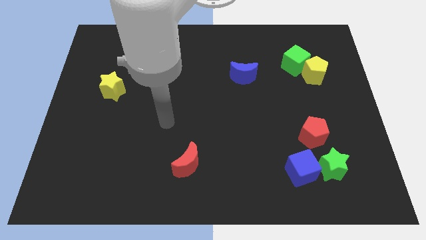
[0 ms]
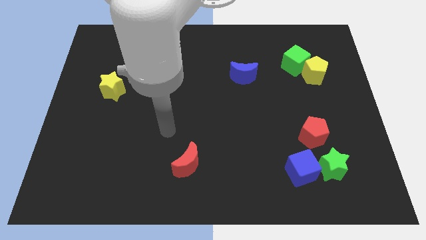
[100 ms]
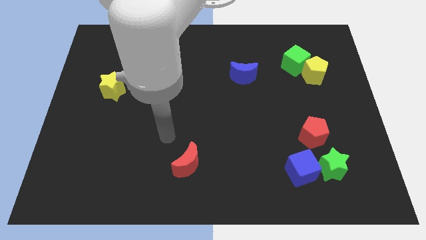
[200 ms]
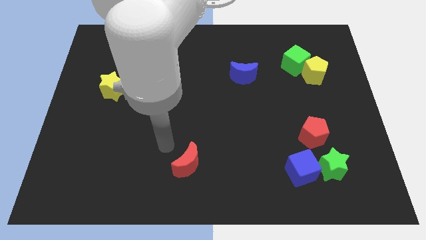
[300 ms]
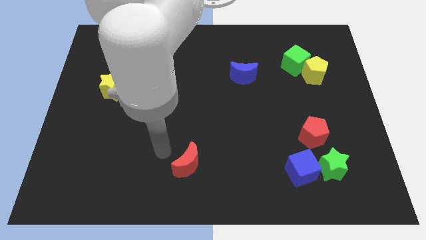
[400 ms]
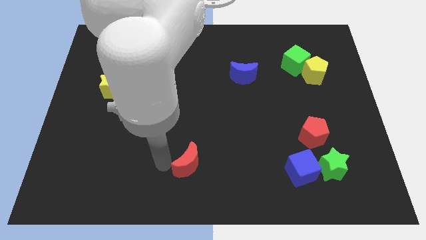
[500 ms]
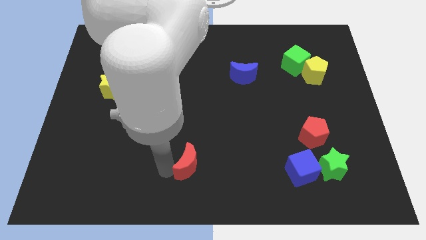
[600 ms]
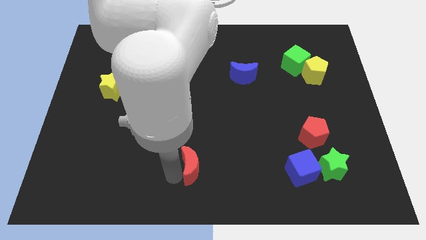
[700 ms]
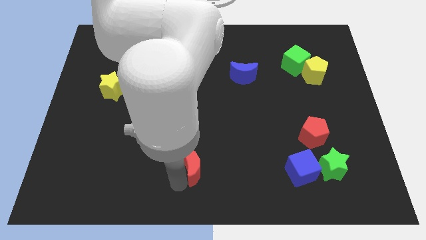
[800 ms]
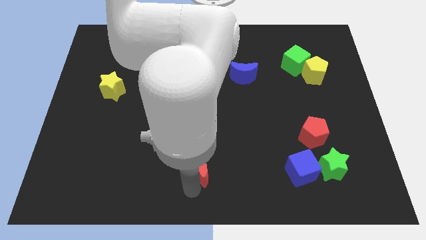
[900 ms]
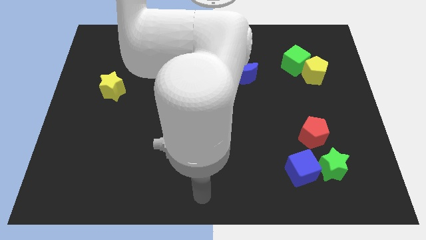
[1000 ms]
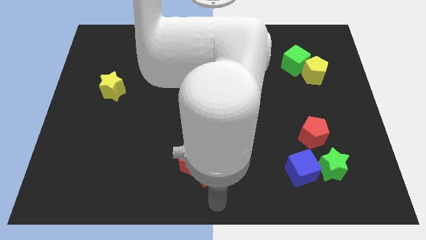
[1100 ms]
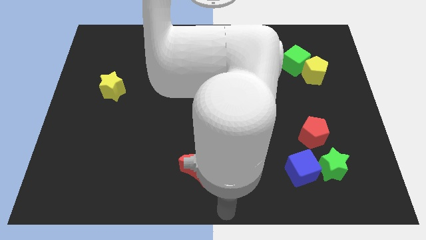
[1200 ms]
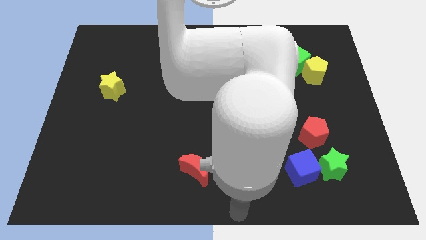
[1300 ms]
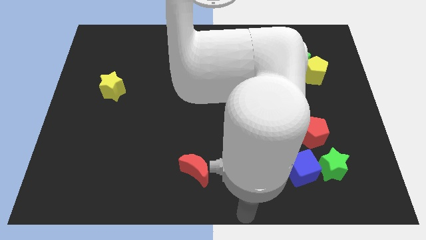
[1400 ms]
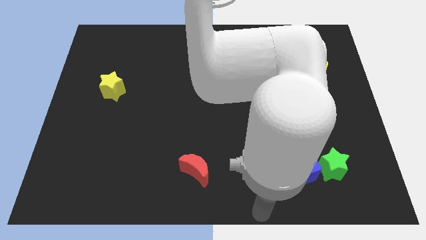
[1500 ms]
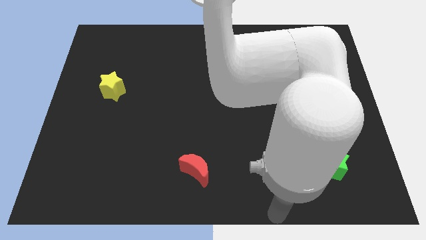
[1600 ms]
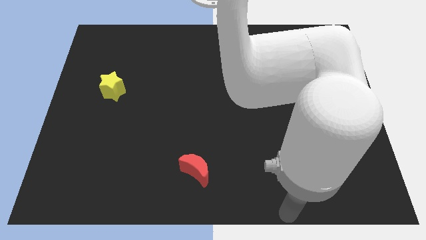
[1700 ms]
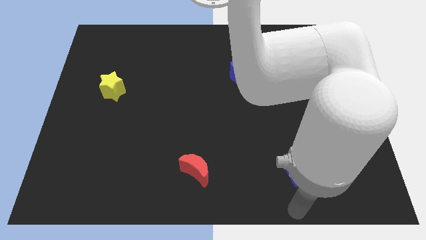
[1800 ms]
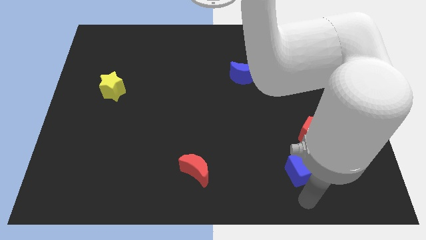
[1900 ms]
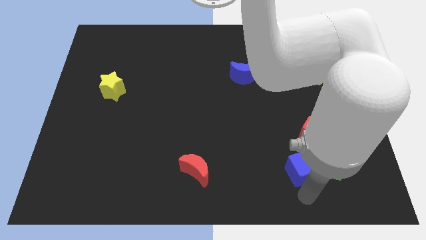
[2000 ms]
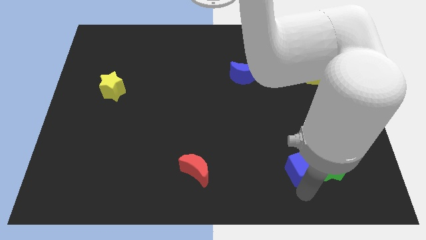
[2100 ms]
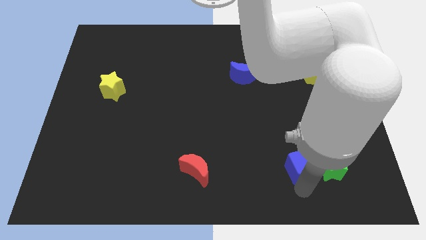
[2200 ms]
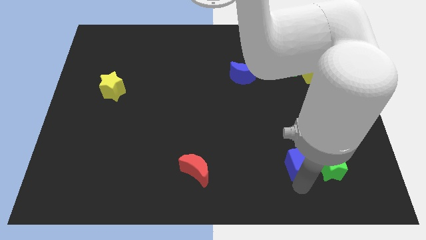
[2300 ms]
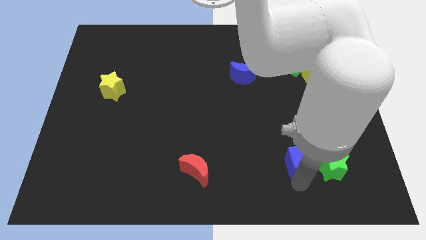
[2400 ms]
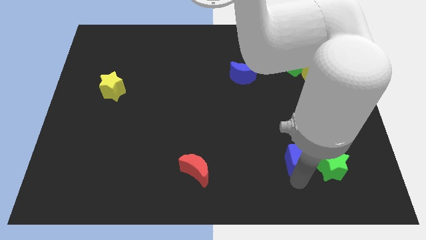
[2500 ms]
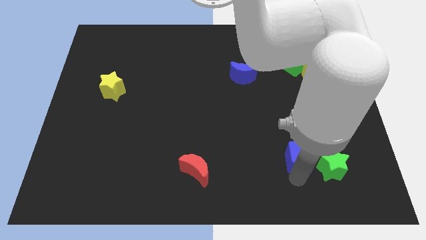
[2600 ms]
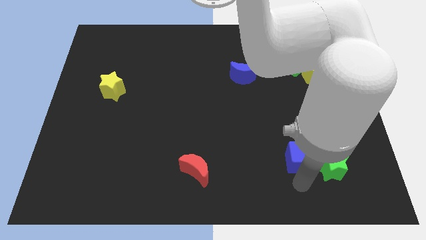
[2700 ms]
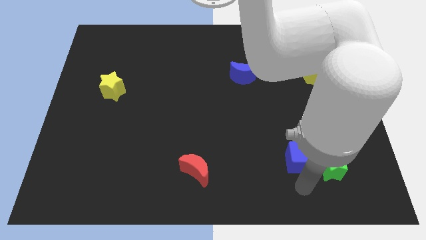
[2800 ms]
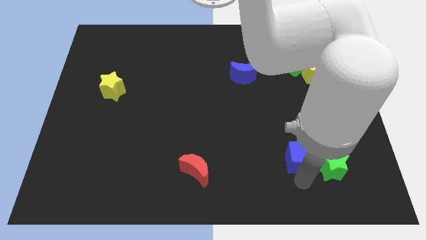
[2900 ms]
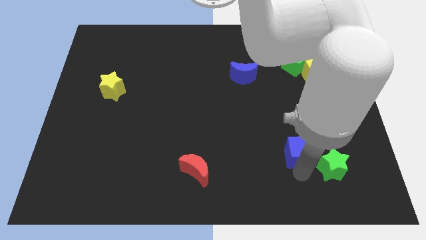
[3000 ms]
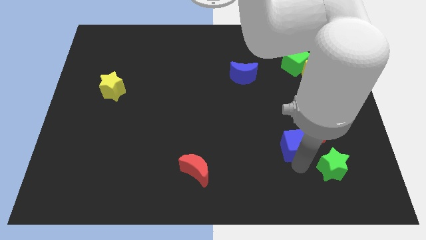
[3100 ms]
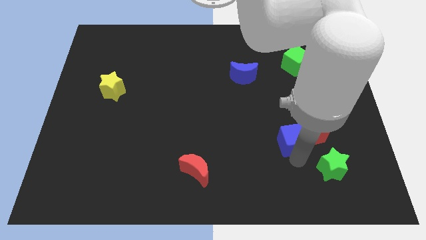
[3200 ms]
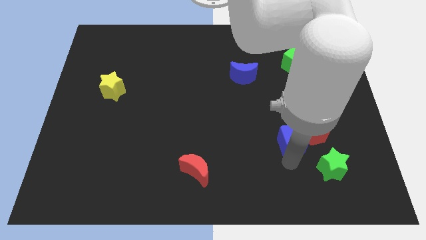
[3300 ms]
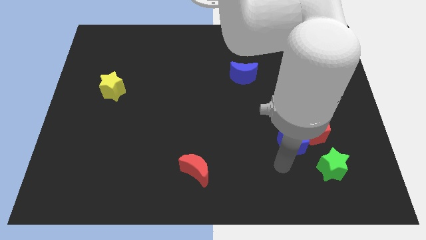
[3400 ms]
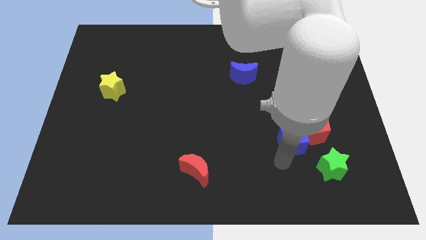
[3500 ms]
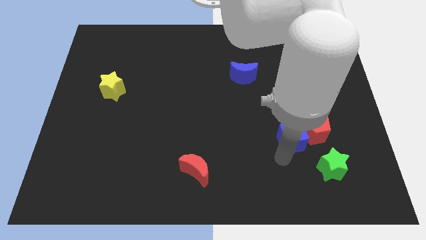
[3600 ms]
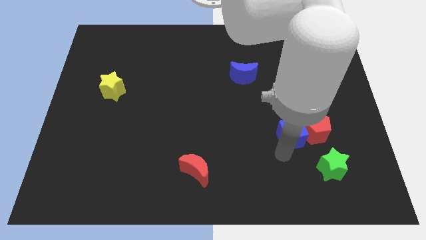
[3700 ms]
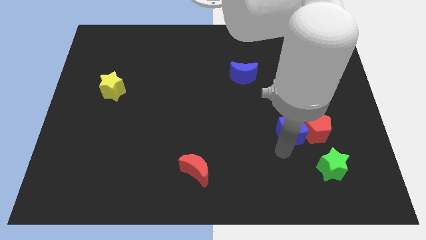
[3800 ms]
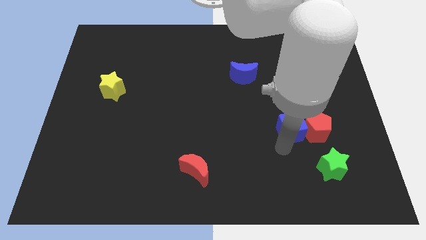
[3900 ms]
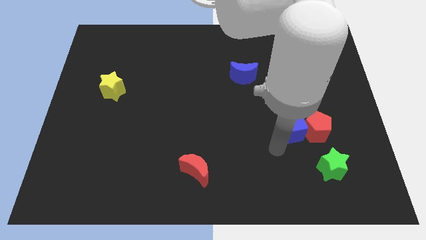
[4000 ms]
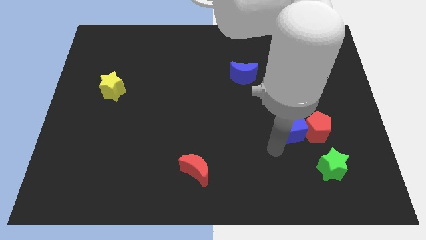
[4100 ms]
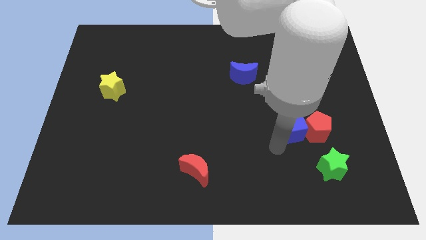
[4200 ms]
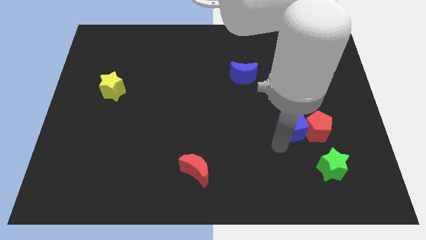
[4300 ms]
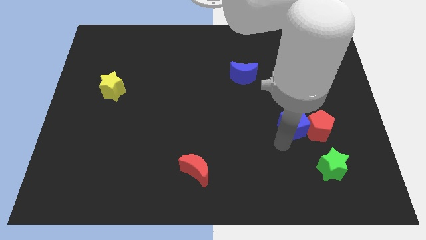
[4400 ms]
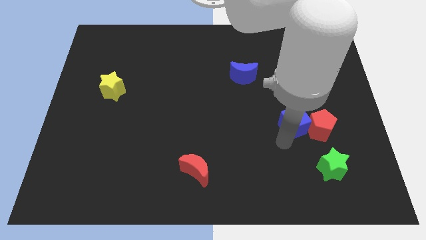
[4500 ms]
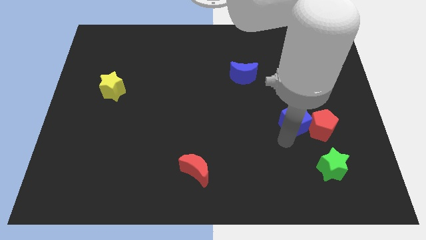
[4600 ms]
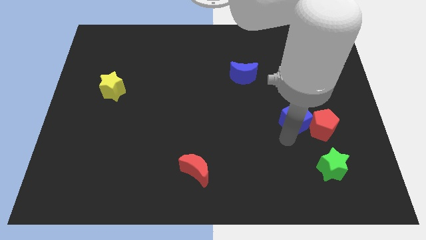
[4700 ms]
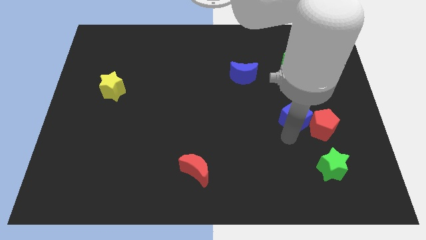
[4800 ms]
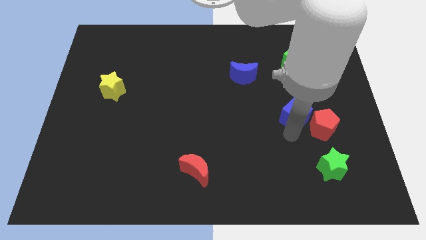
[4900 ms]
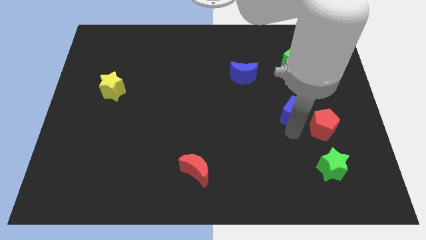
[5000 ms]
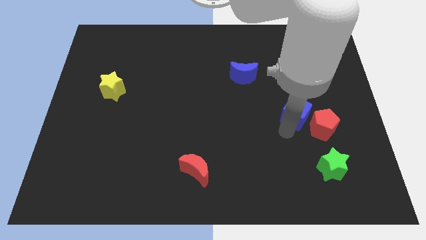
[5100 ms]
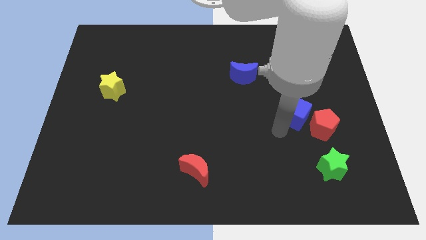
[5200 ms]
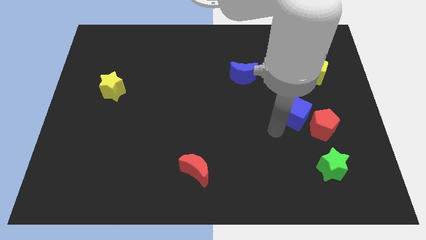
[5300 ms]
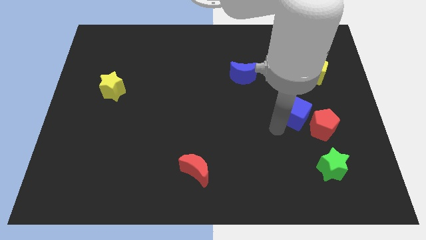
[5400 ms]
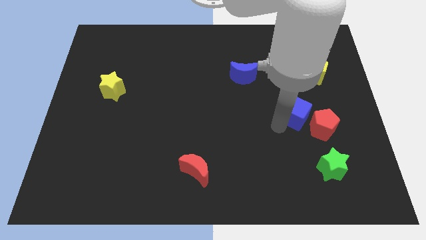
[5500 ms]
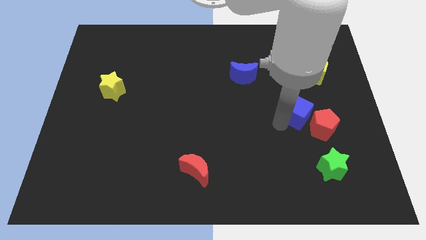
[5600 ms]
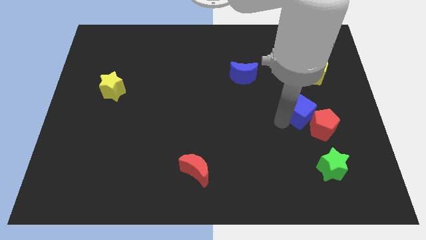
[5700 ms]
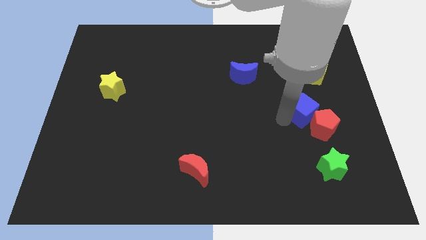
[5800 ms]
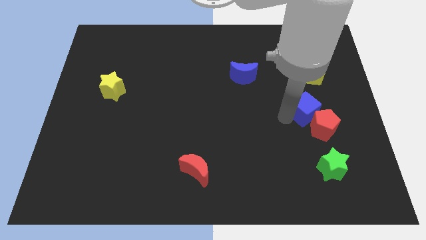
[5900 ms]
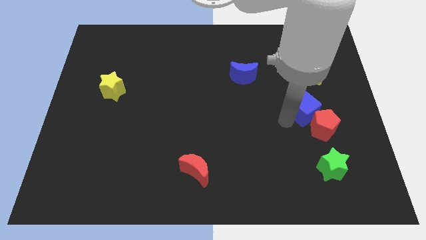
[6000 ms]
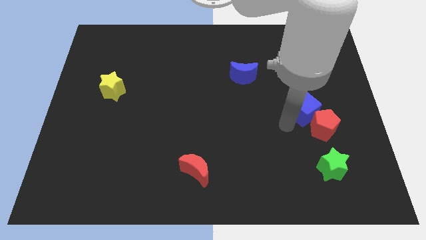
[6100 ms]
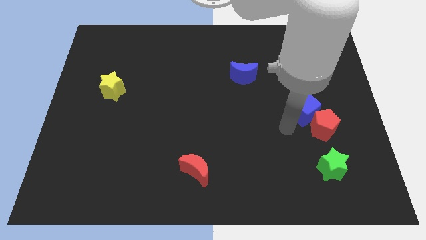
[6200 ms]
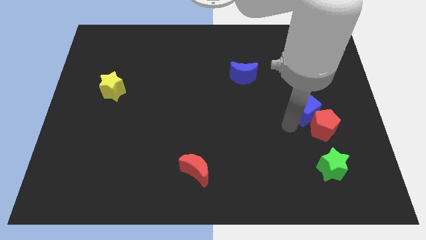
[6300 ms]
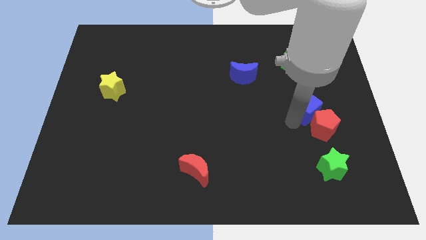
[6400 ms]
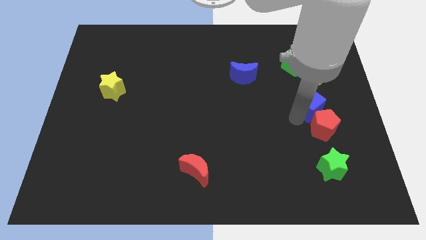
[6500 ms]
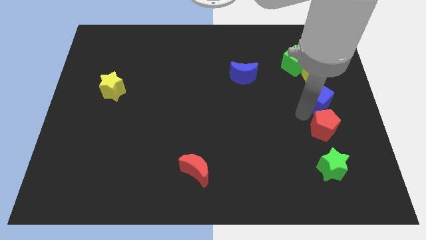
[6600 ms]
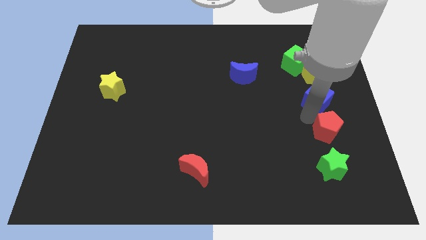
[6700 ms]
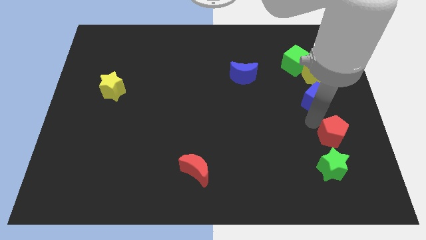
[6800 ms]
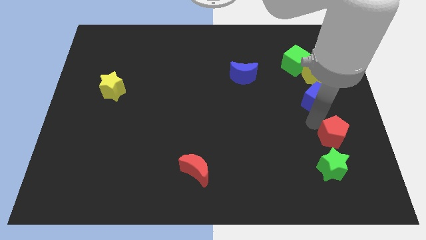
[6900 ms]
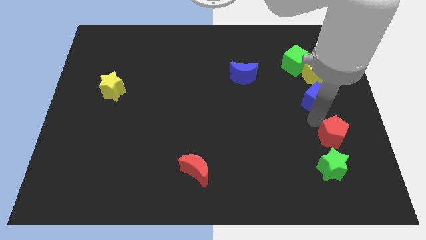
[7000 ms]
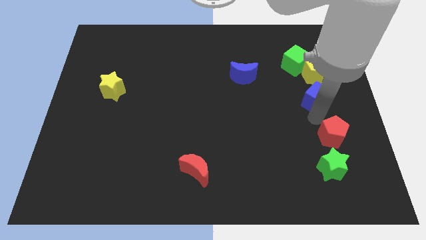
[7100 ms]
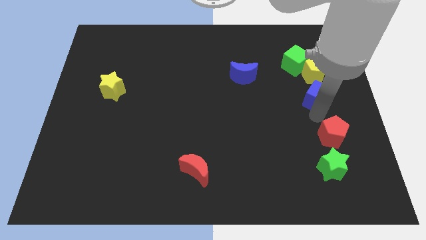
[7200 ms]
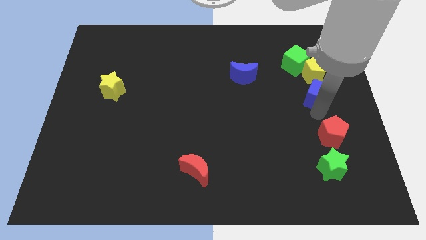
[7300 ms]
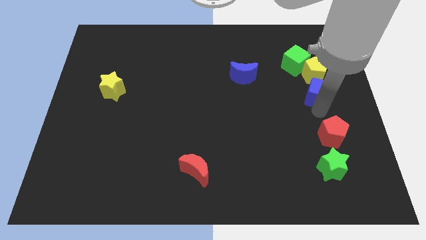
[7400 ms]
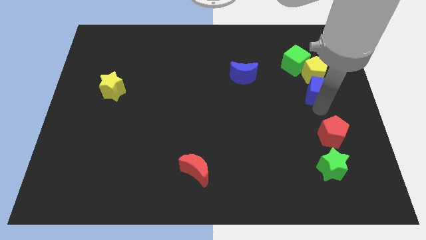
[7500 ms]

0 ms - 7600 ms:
put the blue cube diagonally down and to the right of the green cube
